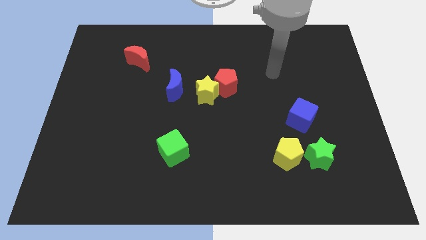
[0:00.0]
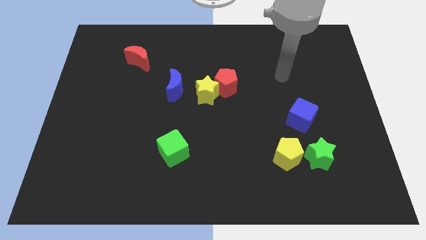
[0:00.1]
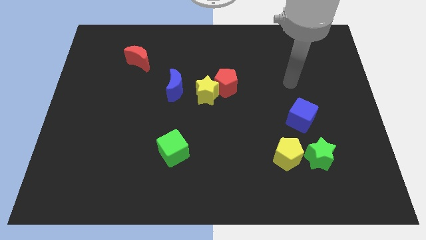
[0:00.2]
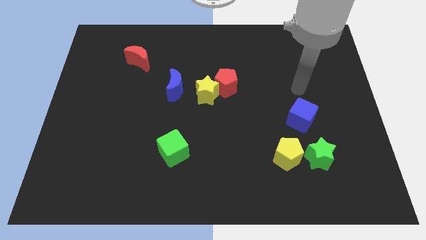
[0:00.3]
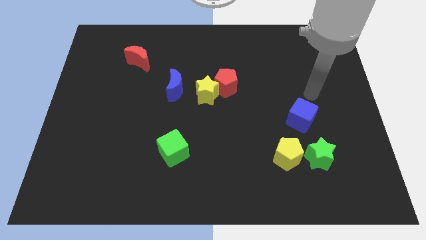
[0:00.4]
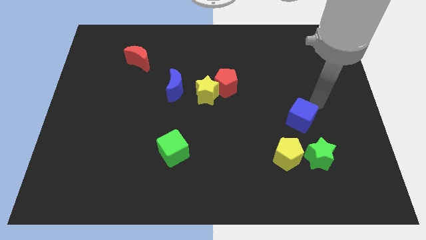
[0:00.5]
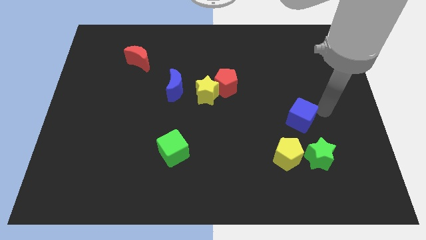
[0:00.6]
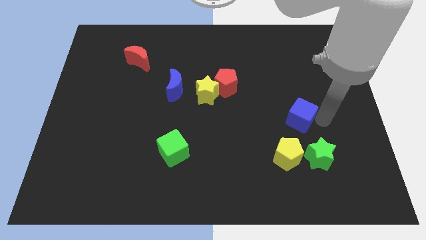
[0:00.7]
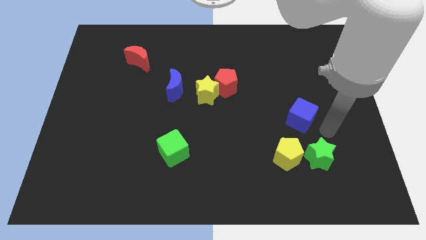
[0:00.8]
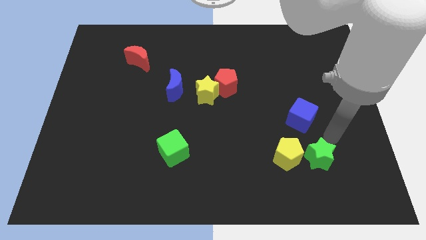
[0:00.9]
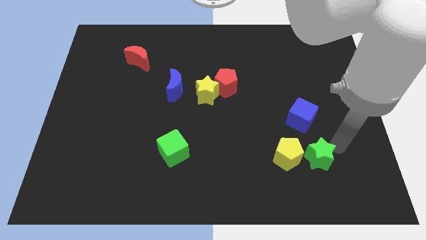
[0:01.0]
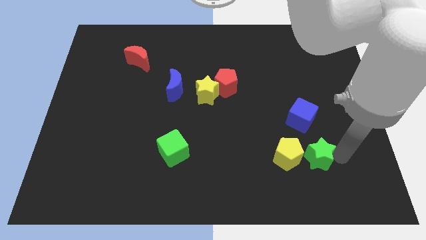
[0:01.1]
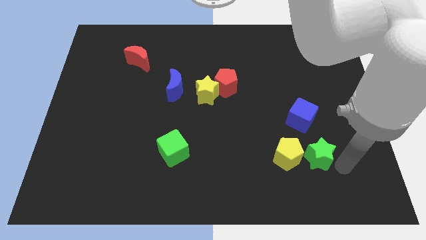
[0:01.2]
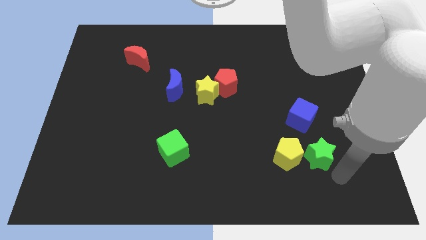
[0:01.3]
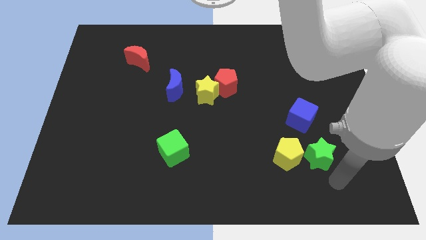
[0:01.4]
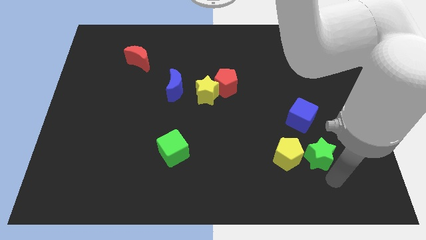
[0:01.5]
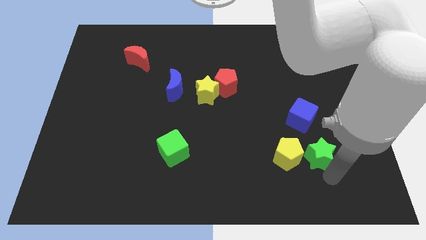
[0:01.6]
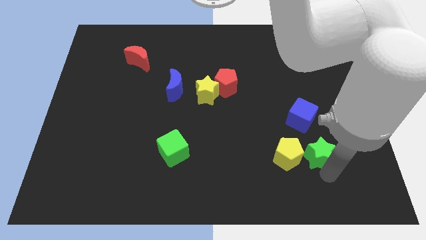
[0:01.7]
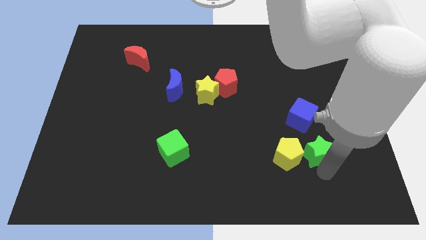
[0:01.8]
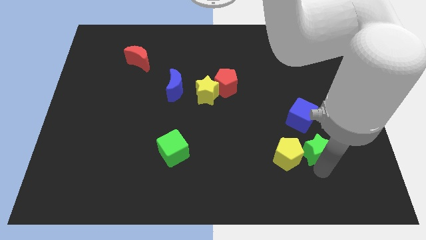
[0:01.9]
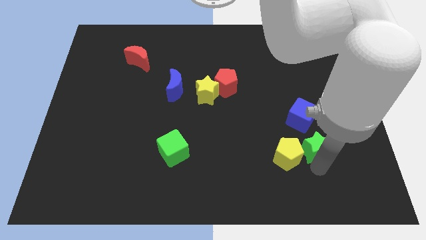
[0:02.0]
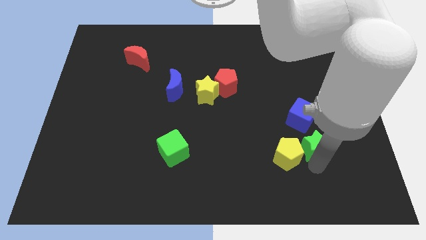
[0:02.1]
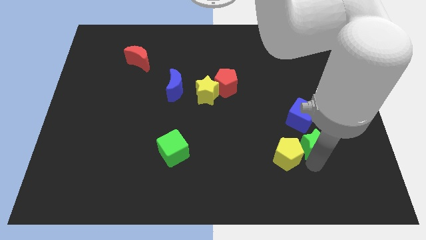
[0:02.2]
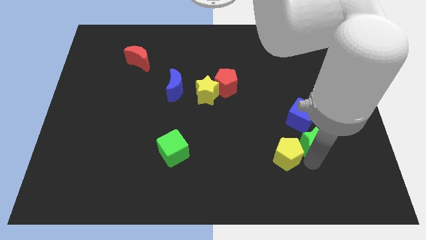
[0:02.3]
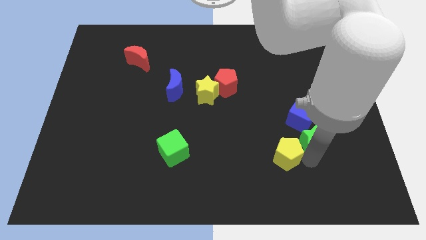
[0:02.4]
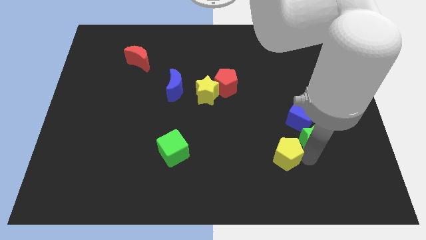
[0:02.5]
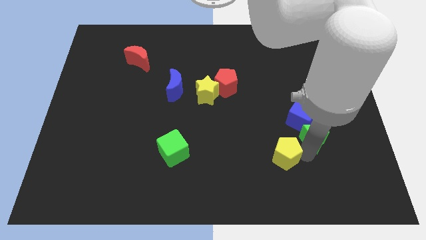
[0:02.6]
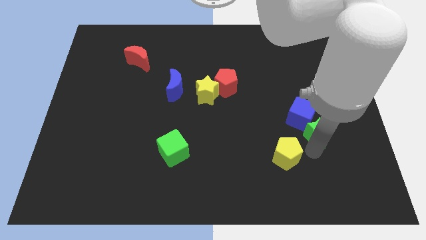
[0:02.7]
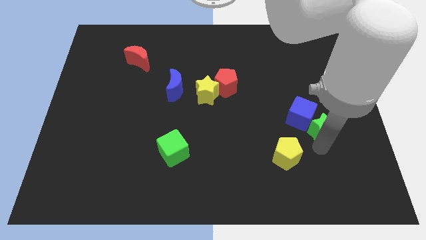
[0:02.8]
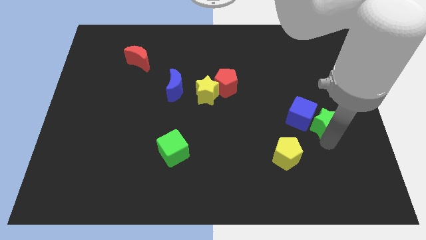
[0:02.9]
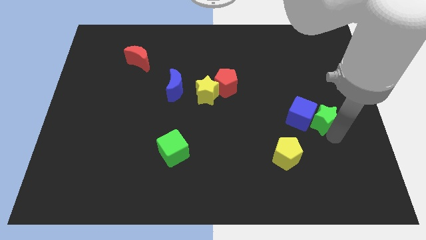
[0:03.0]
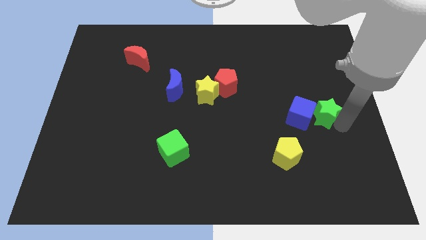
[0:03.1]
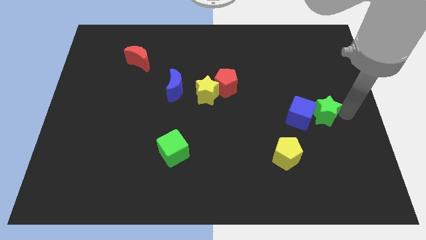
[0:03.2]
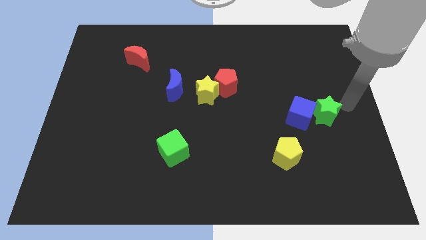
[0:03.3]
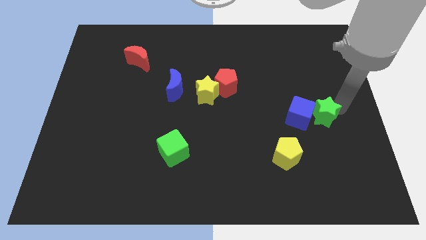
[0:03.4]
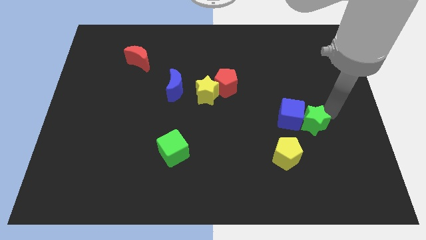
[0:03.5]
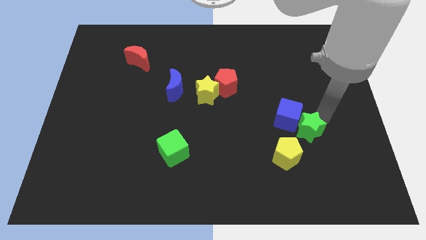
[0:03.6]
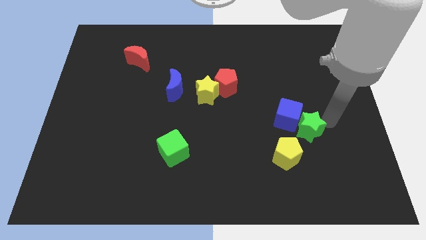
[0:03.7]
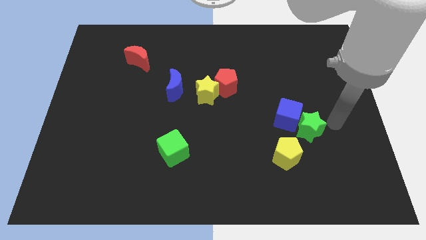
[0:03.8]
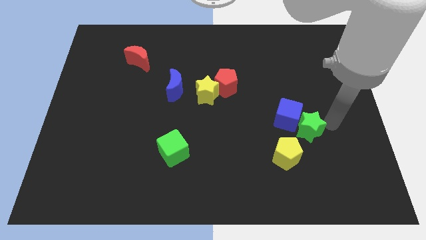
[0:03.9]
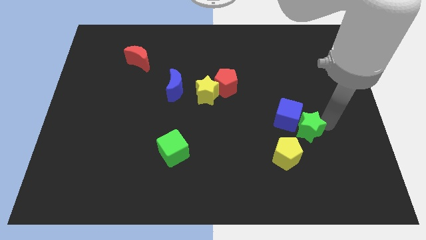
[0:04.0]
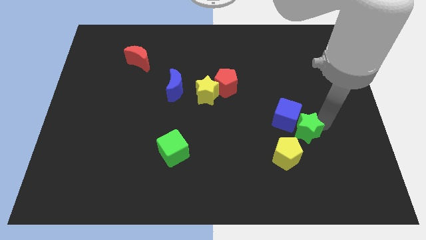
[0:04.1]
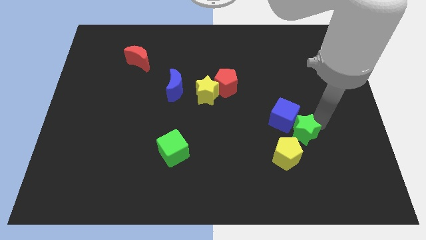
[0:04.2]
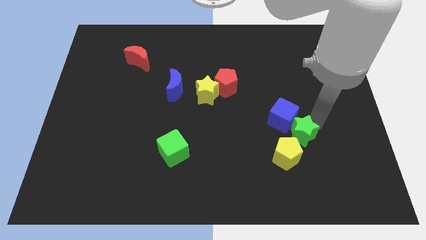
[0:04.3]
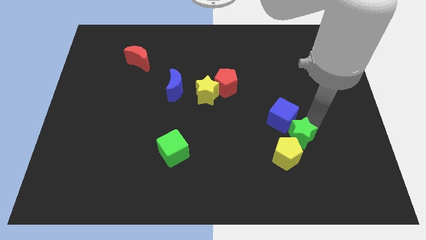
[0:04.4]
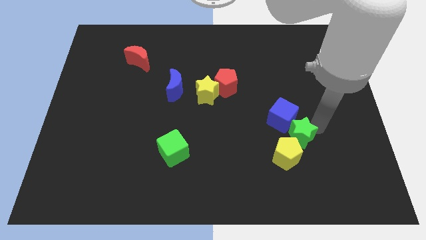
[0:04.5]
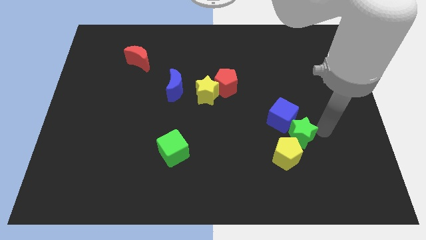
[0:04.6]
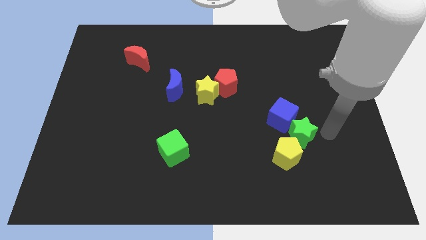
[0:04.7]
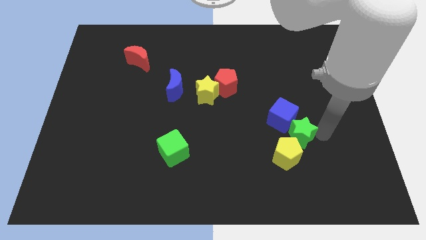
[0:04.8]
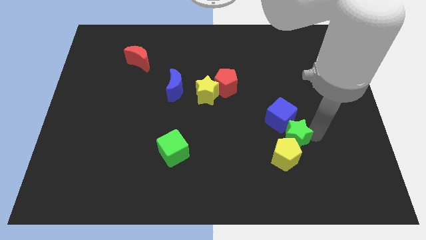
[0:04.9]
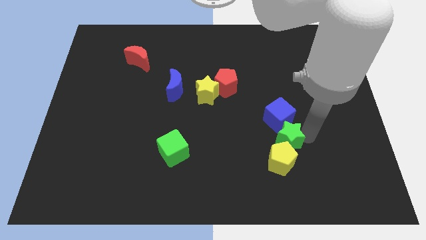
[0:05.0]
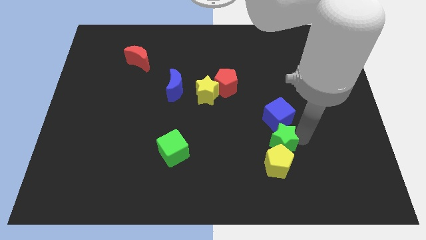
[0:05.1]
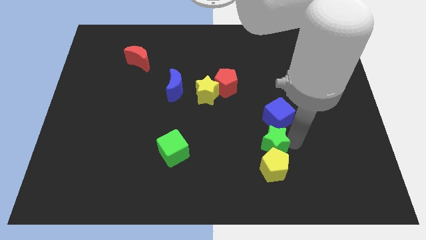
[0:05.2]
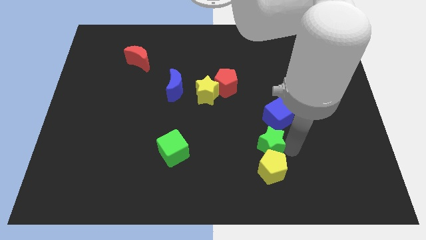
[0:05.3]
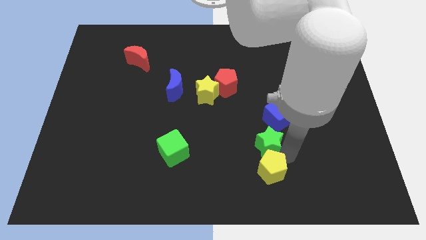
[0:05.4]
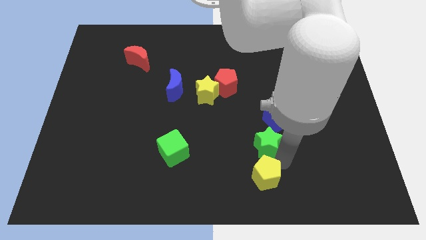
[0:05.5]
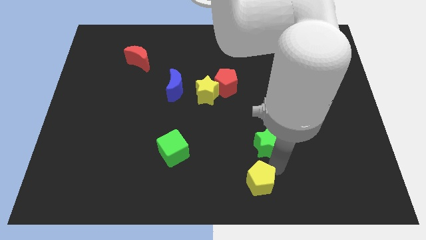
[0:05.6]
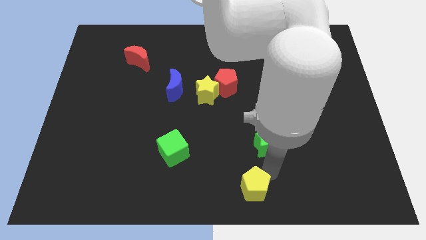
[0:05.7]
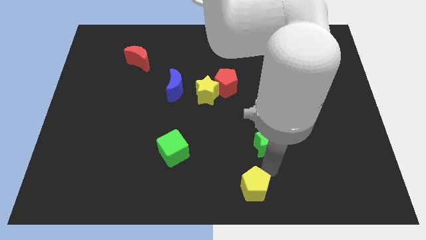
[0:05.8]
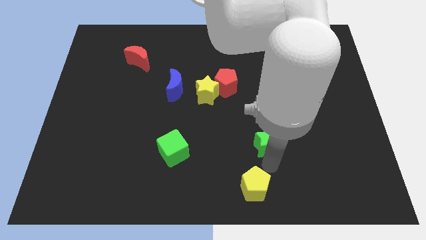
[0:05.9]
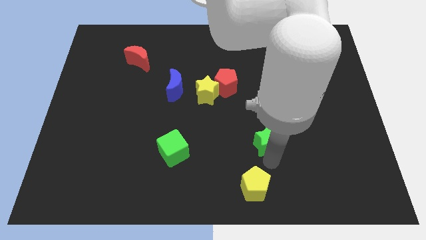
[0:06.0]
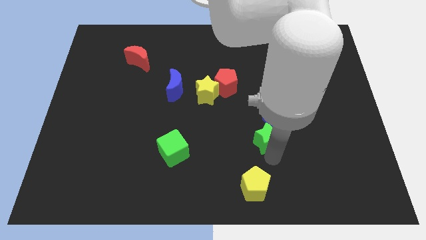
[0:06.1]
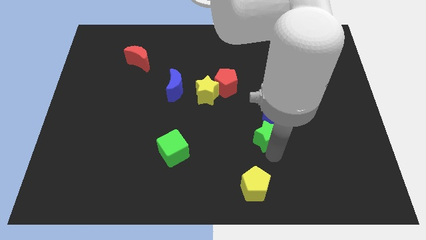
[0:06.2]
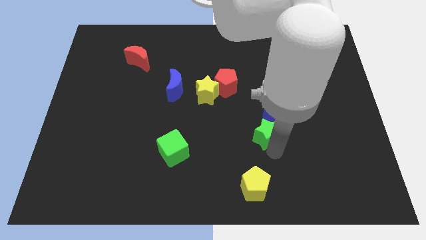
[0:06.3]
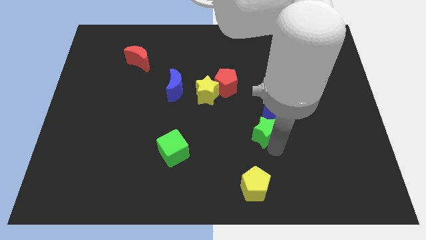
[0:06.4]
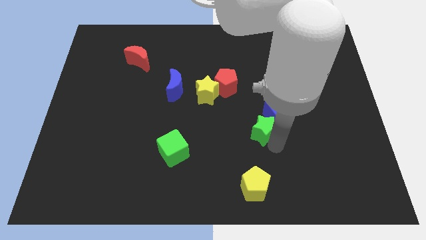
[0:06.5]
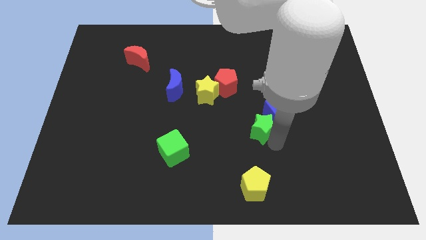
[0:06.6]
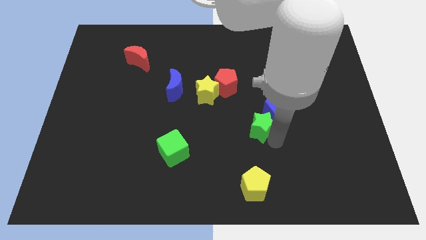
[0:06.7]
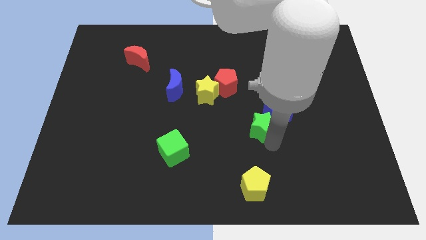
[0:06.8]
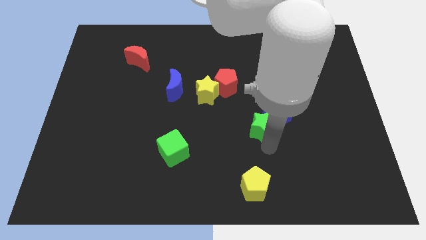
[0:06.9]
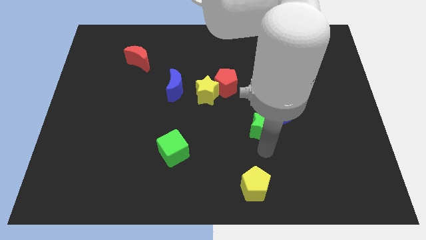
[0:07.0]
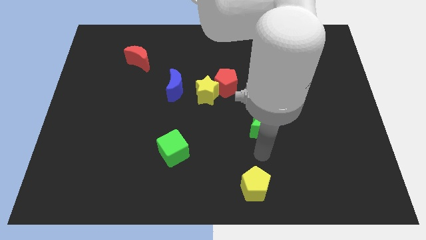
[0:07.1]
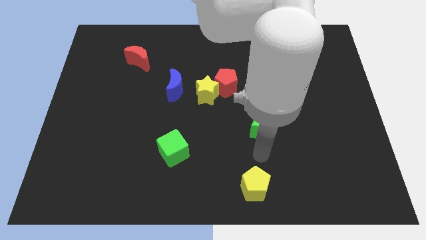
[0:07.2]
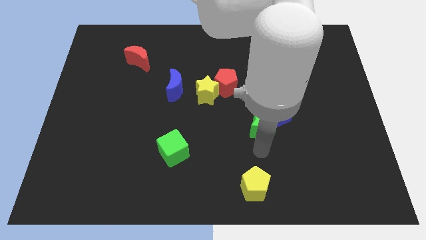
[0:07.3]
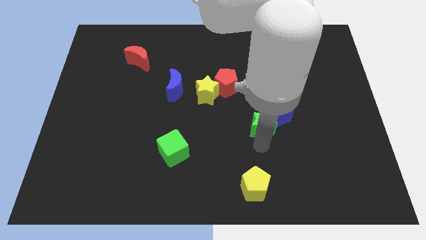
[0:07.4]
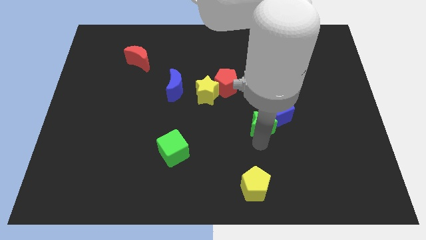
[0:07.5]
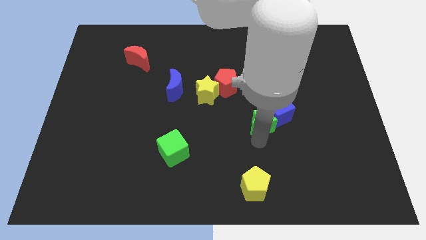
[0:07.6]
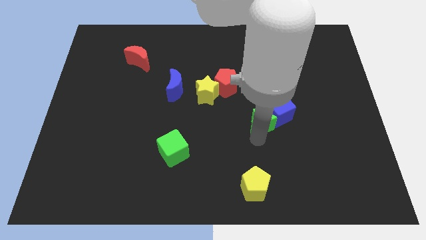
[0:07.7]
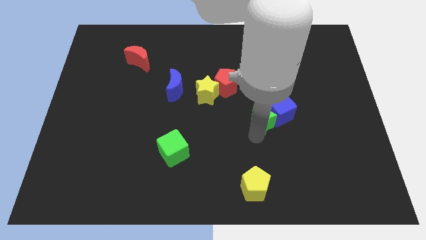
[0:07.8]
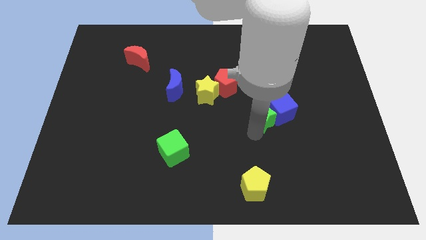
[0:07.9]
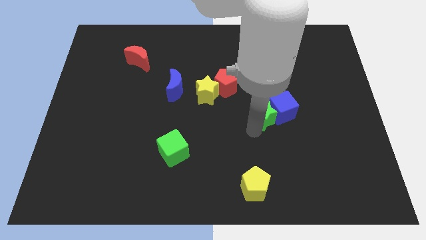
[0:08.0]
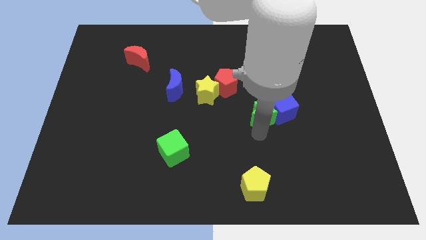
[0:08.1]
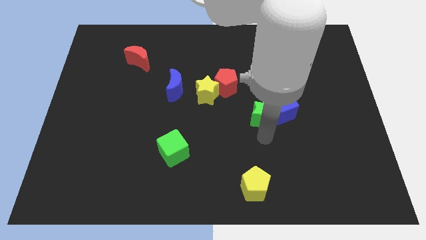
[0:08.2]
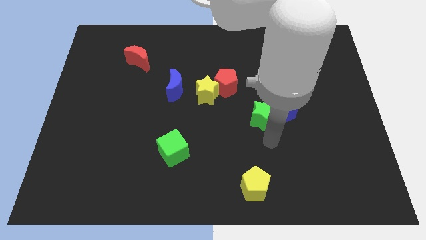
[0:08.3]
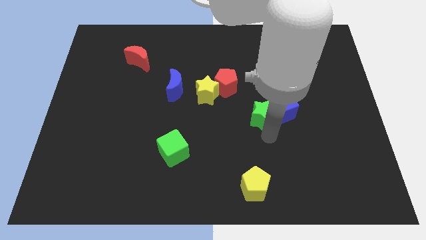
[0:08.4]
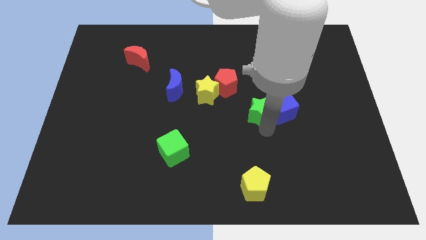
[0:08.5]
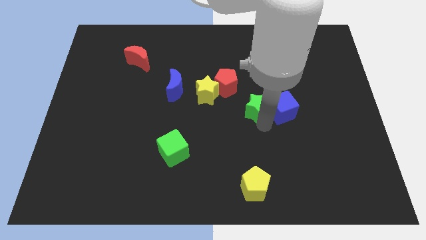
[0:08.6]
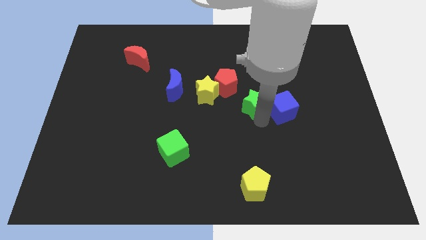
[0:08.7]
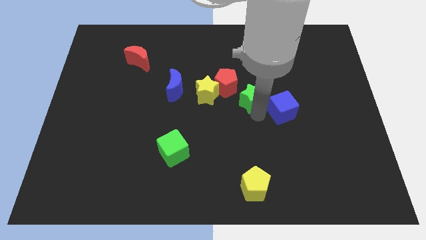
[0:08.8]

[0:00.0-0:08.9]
slide the green star upwards and to the left
